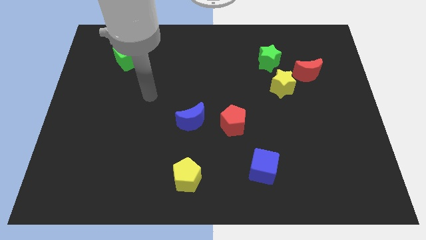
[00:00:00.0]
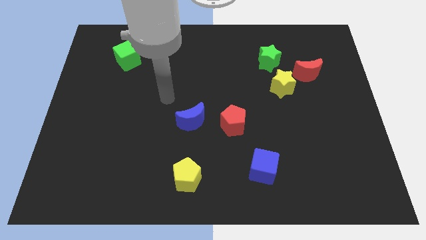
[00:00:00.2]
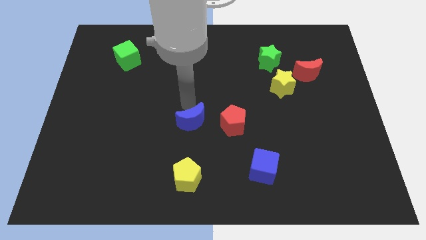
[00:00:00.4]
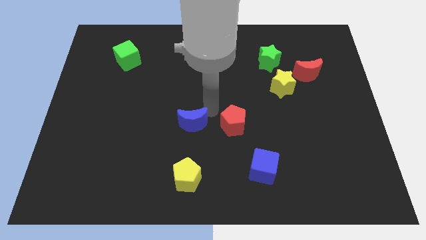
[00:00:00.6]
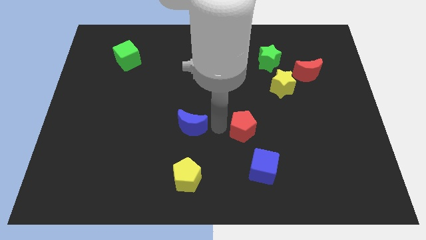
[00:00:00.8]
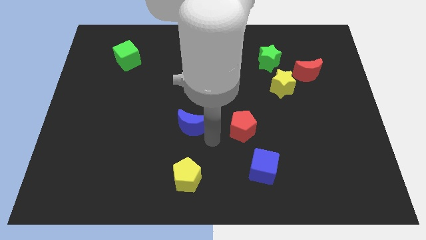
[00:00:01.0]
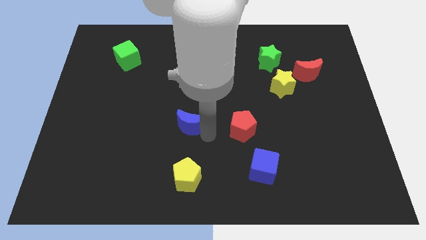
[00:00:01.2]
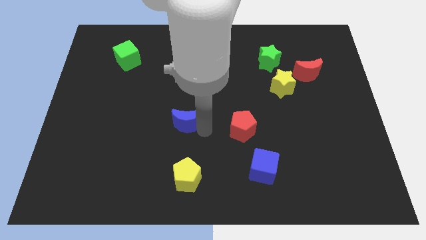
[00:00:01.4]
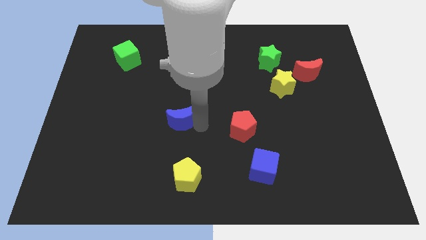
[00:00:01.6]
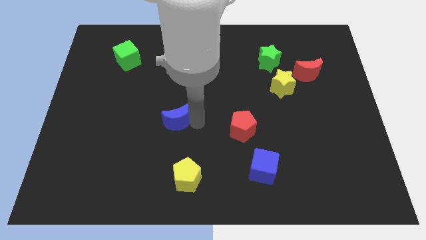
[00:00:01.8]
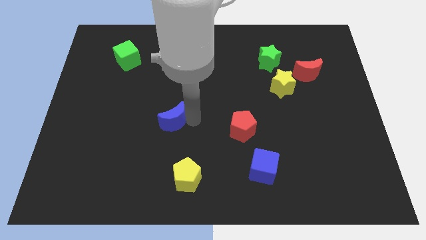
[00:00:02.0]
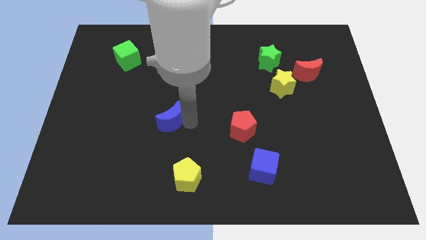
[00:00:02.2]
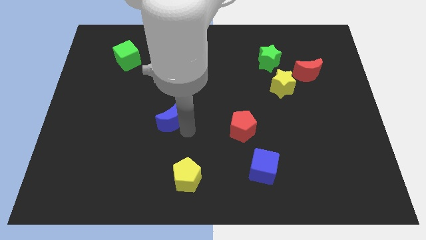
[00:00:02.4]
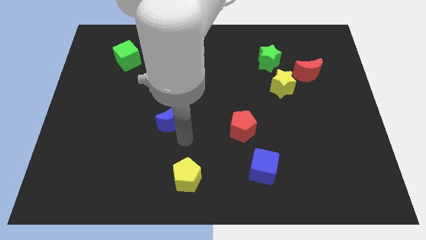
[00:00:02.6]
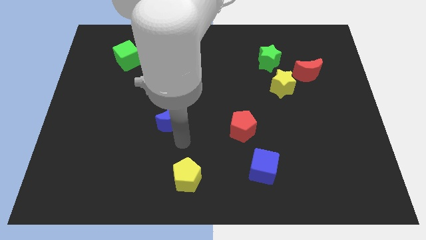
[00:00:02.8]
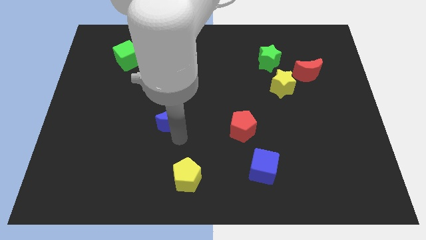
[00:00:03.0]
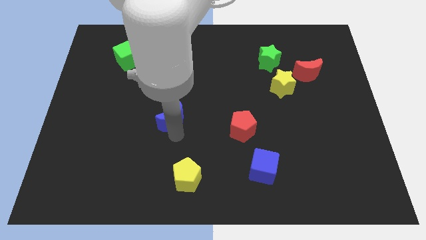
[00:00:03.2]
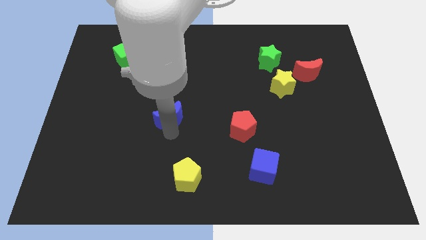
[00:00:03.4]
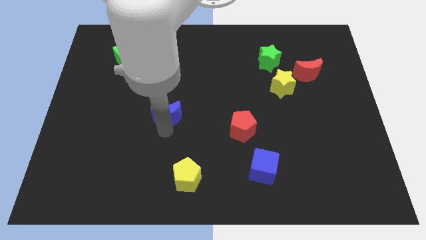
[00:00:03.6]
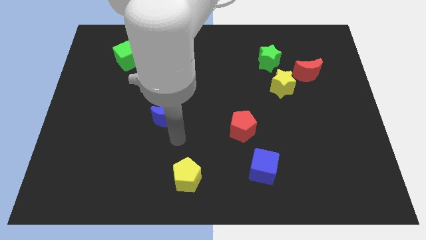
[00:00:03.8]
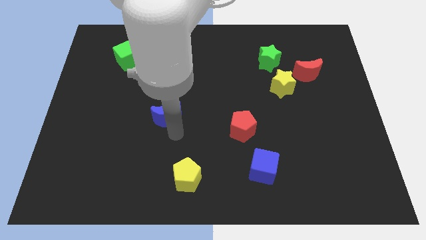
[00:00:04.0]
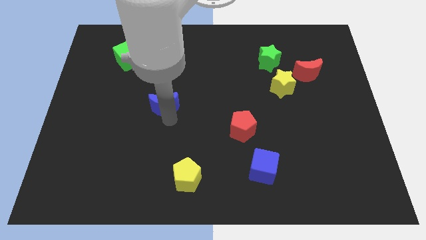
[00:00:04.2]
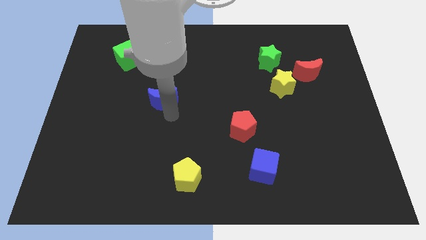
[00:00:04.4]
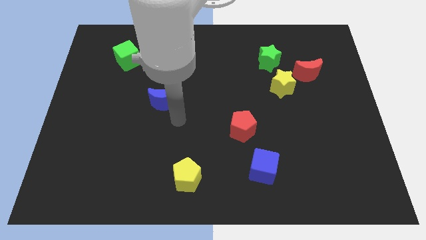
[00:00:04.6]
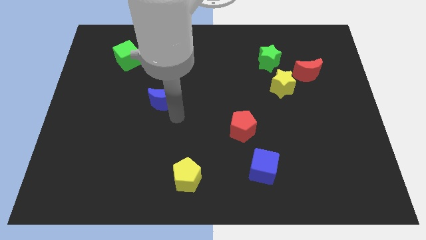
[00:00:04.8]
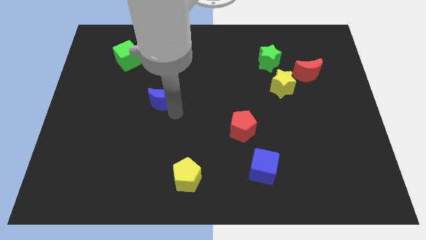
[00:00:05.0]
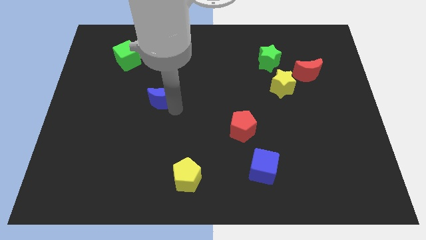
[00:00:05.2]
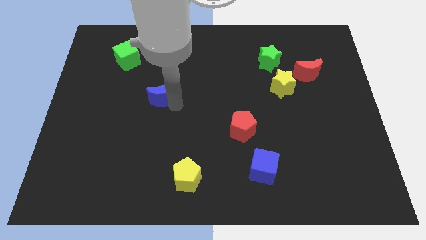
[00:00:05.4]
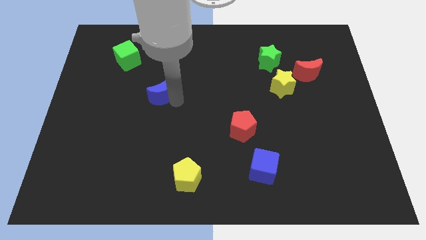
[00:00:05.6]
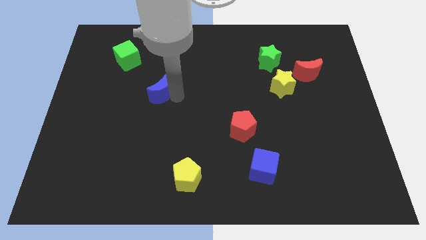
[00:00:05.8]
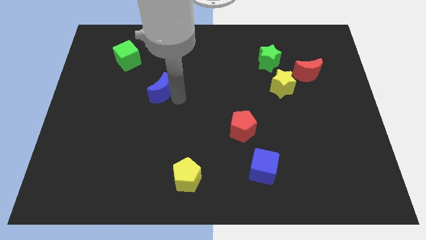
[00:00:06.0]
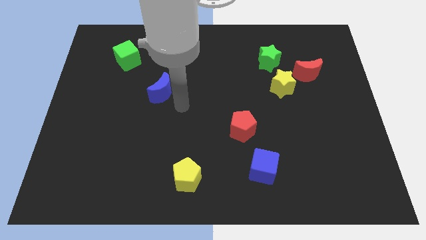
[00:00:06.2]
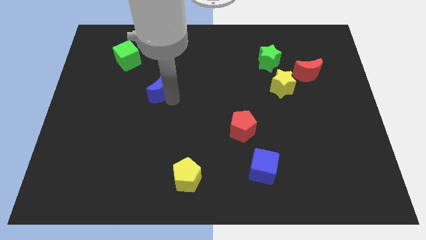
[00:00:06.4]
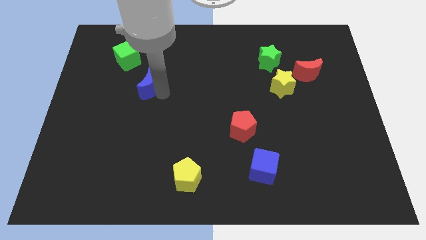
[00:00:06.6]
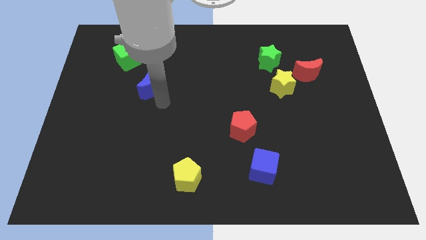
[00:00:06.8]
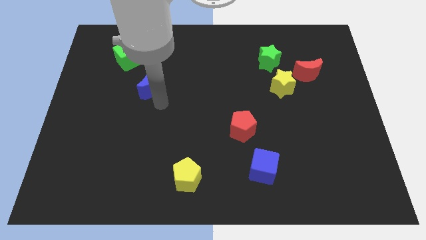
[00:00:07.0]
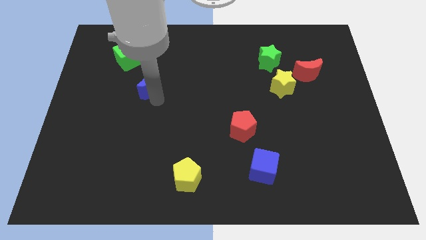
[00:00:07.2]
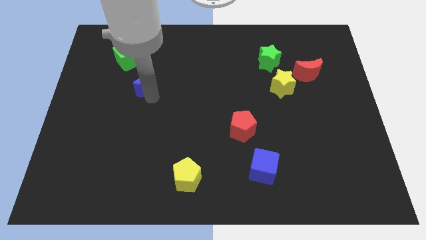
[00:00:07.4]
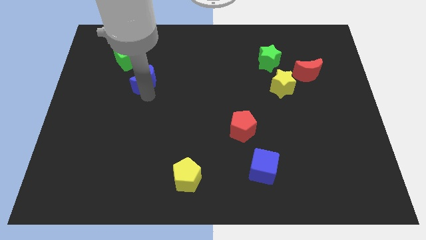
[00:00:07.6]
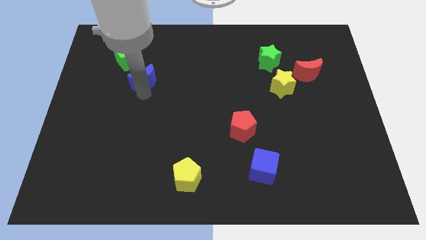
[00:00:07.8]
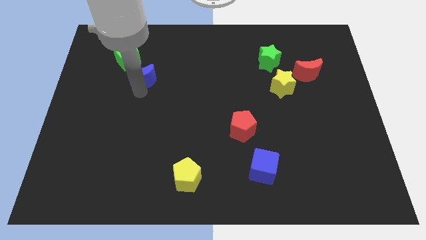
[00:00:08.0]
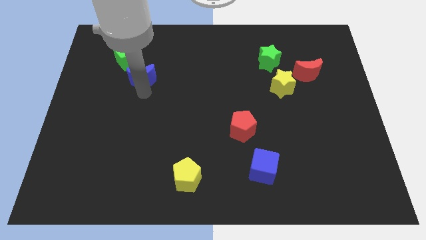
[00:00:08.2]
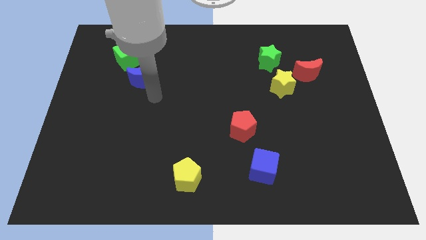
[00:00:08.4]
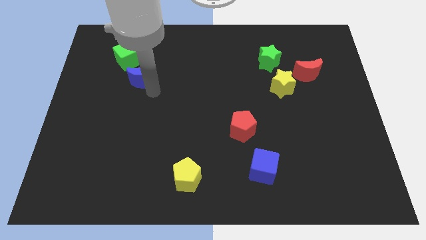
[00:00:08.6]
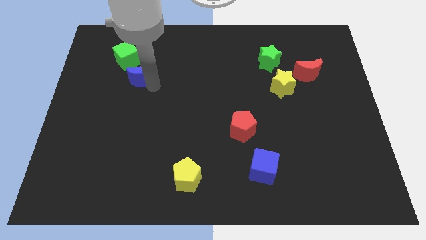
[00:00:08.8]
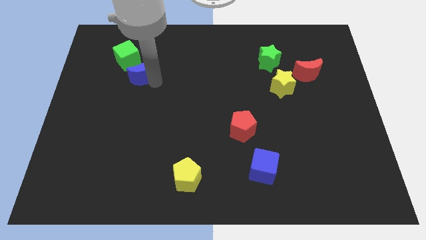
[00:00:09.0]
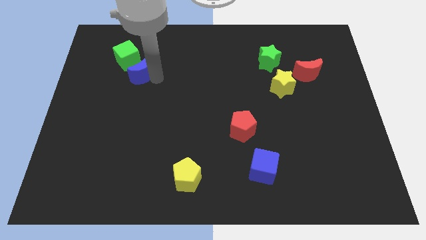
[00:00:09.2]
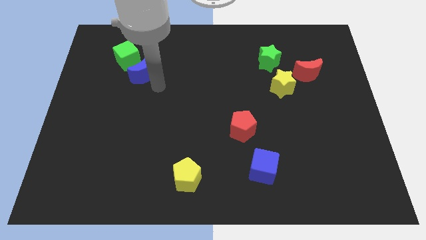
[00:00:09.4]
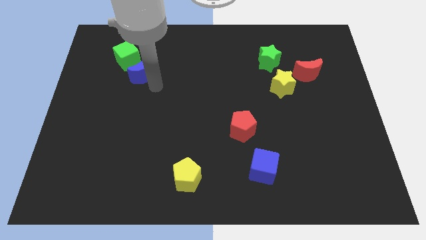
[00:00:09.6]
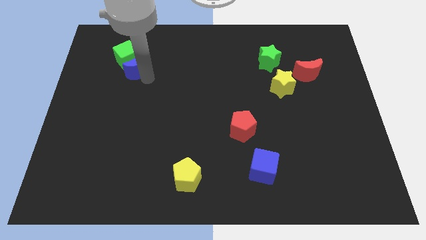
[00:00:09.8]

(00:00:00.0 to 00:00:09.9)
push the blue moon to the green cube

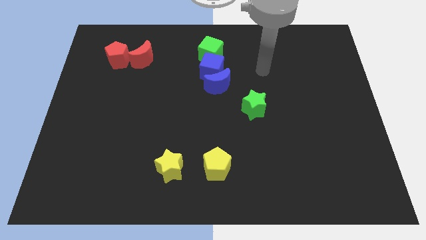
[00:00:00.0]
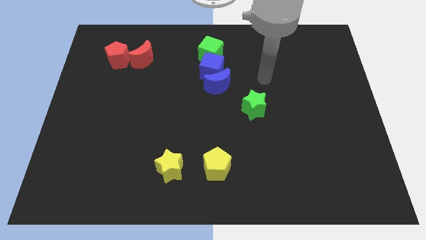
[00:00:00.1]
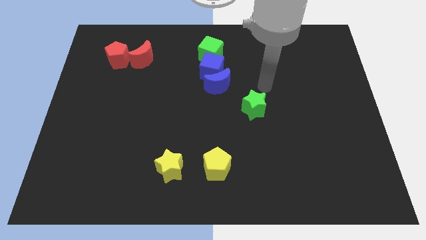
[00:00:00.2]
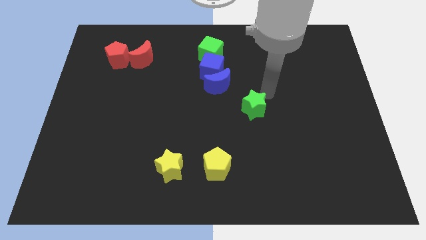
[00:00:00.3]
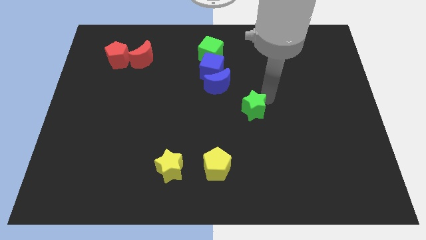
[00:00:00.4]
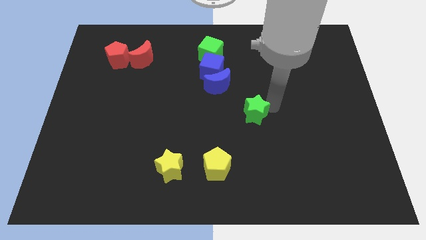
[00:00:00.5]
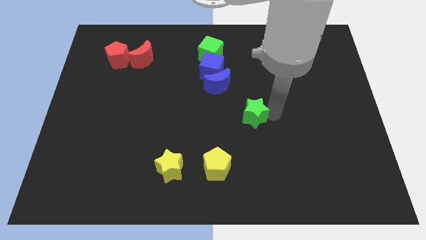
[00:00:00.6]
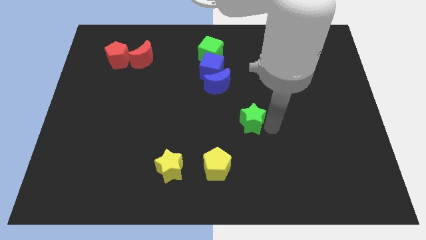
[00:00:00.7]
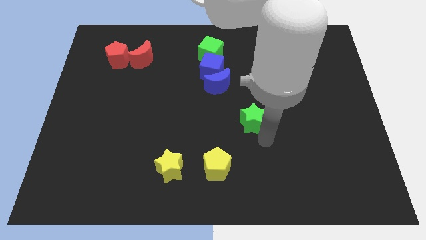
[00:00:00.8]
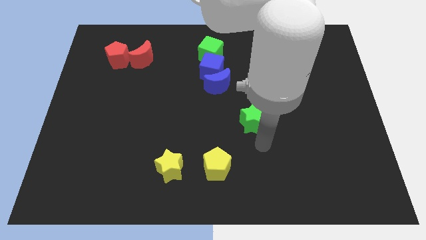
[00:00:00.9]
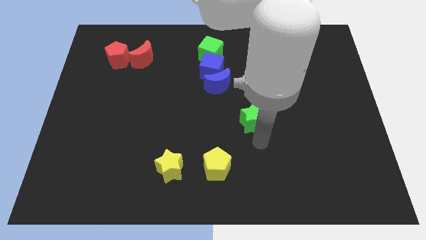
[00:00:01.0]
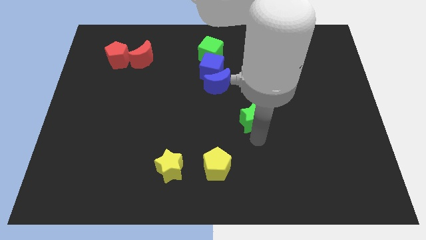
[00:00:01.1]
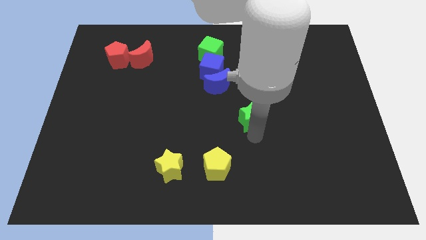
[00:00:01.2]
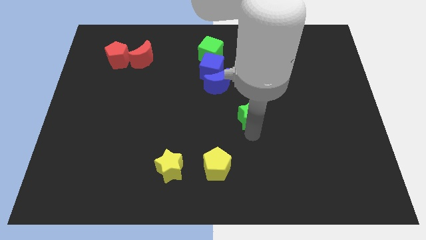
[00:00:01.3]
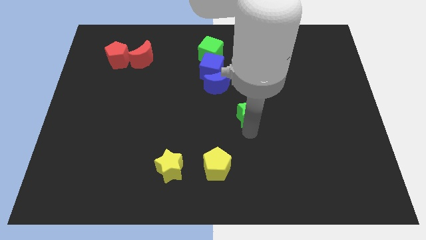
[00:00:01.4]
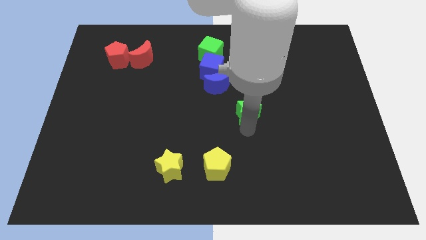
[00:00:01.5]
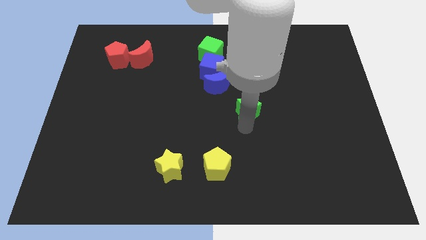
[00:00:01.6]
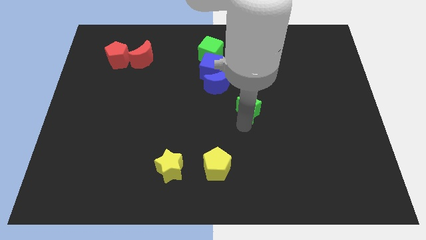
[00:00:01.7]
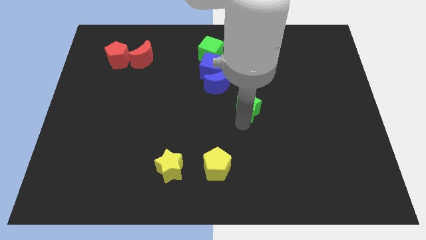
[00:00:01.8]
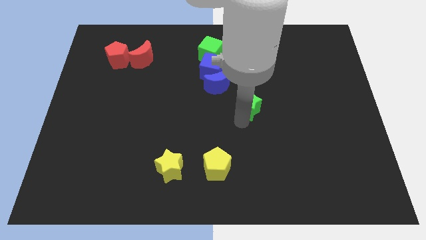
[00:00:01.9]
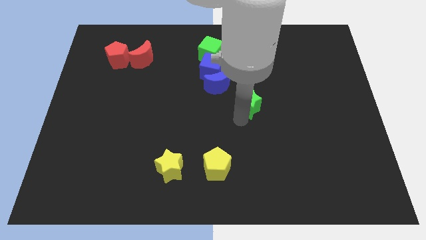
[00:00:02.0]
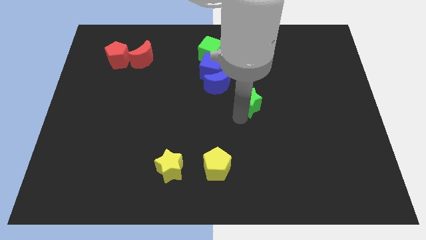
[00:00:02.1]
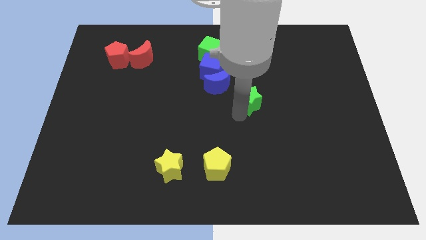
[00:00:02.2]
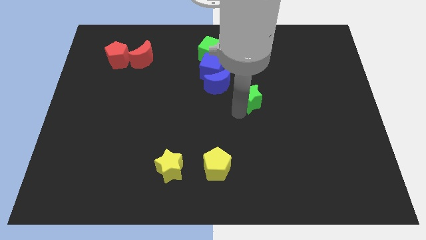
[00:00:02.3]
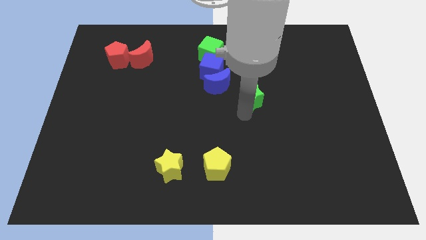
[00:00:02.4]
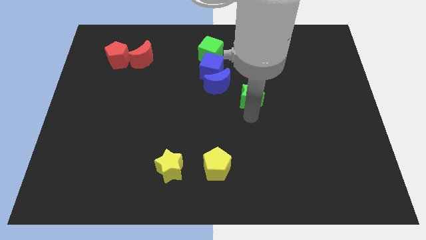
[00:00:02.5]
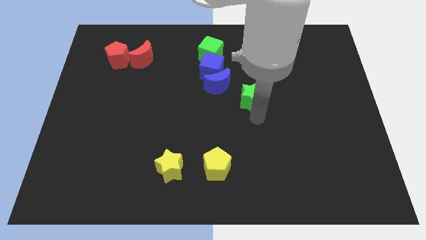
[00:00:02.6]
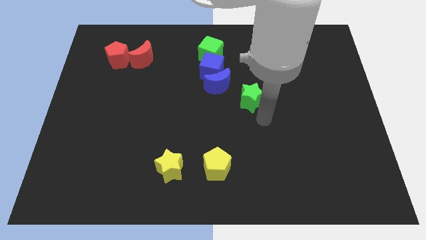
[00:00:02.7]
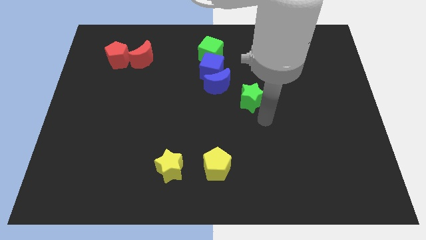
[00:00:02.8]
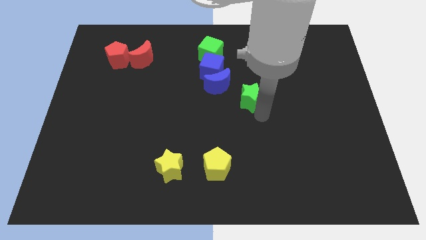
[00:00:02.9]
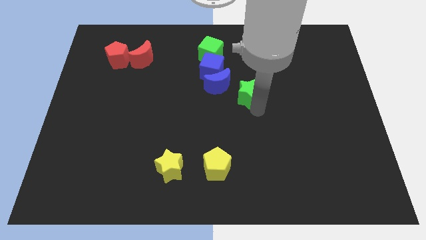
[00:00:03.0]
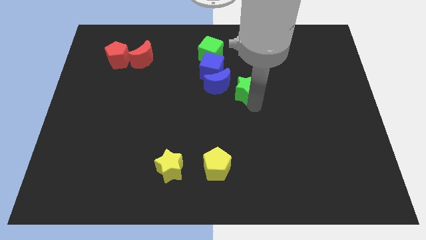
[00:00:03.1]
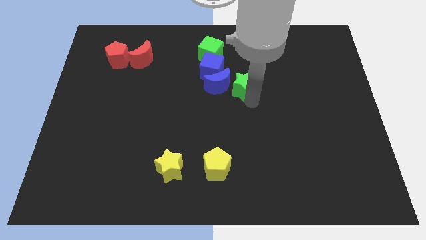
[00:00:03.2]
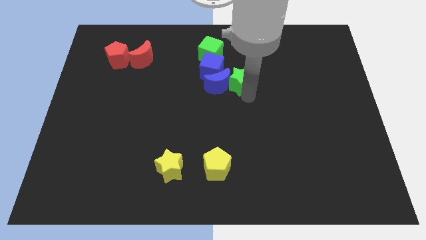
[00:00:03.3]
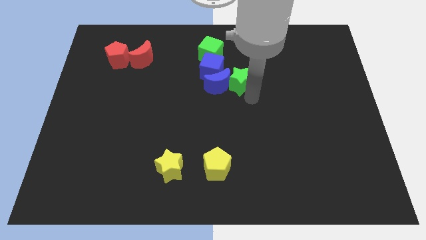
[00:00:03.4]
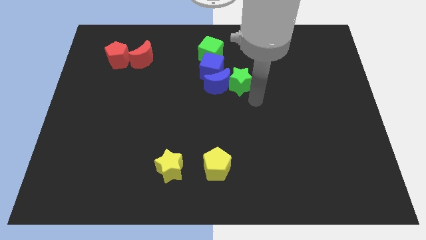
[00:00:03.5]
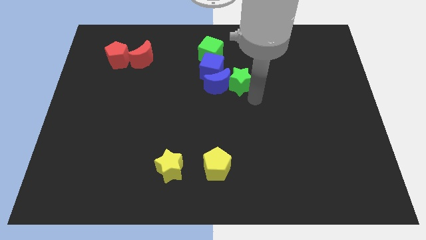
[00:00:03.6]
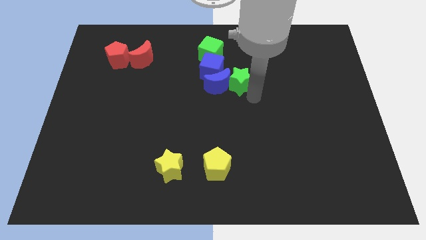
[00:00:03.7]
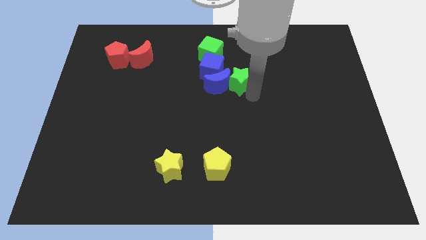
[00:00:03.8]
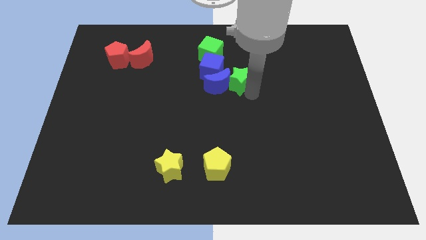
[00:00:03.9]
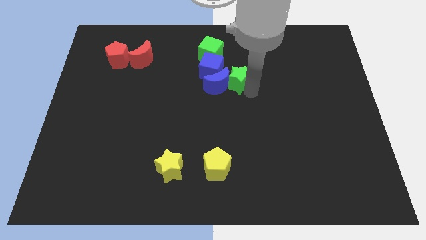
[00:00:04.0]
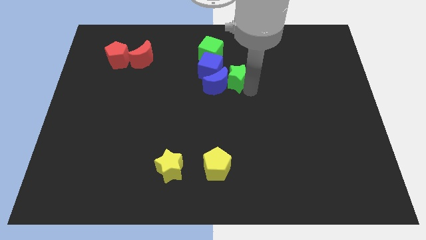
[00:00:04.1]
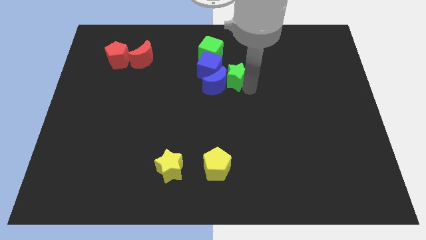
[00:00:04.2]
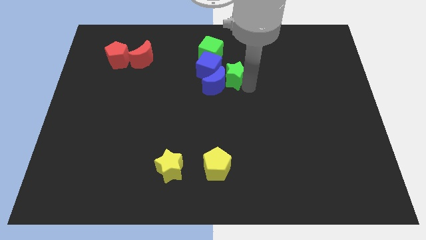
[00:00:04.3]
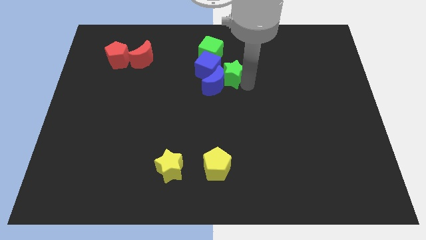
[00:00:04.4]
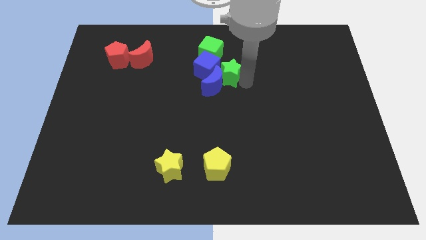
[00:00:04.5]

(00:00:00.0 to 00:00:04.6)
move the green star to the blue cube
